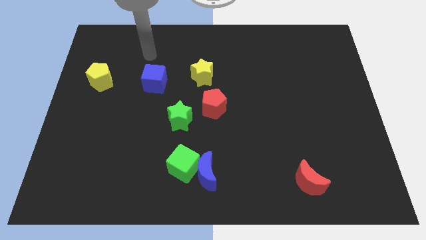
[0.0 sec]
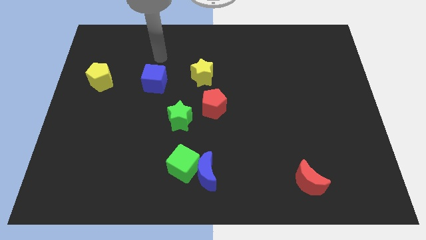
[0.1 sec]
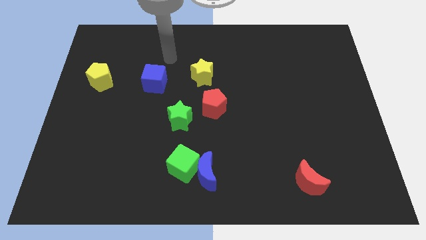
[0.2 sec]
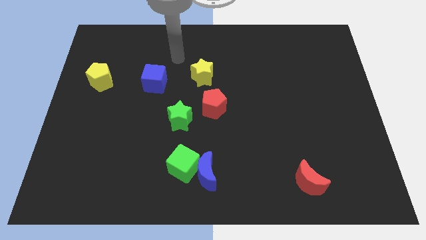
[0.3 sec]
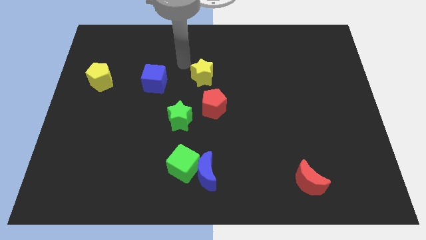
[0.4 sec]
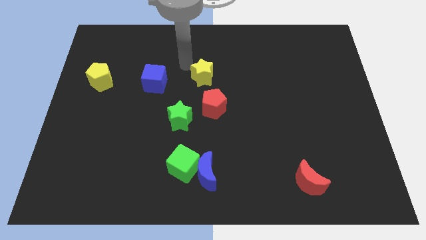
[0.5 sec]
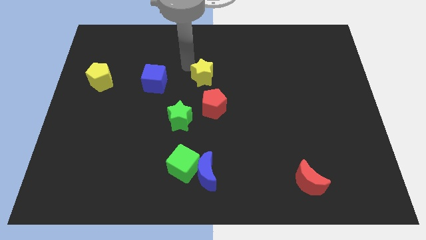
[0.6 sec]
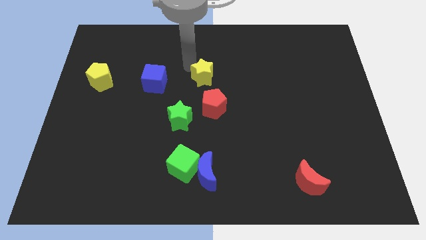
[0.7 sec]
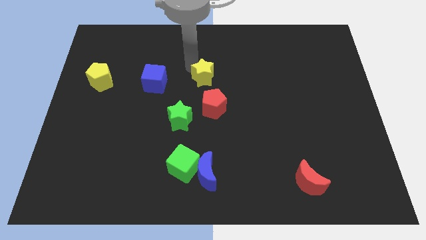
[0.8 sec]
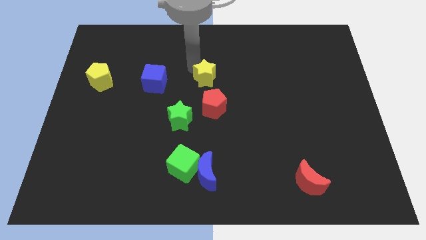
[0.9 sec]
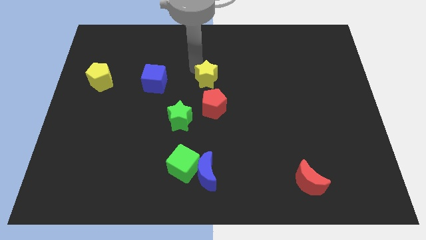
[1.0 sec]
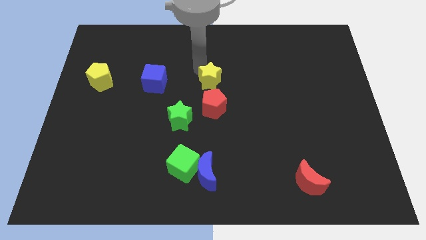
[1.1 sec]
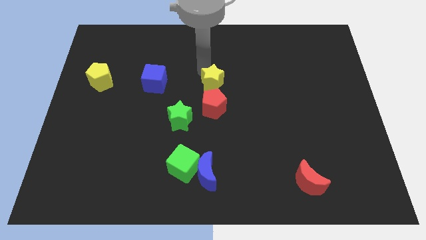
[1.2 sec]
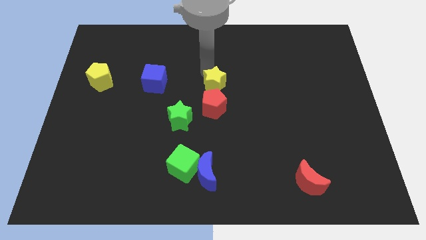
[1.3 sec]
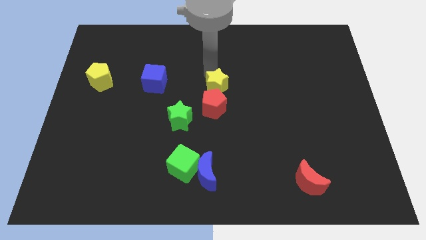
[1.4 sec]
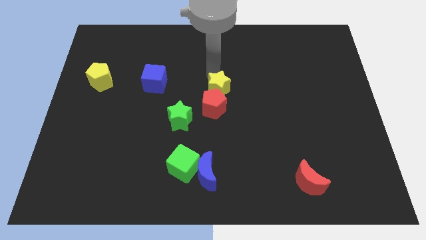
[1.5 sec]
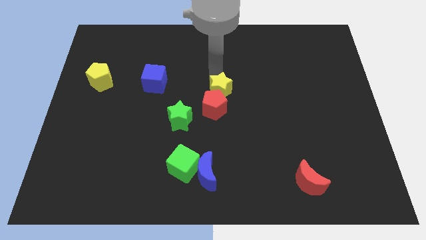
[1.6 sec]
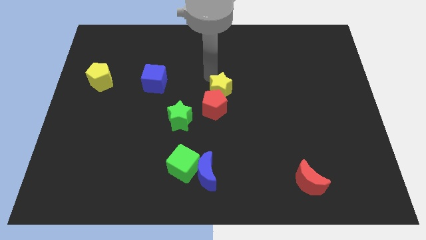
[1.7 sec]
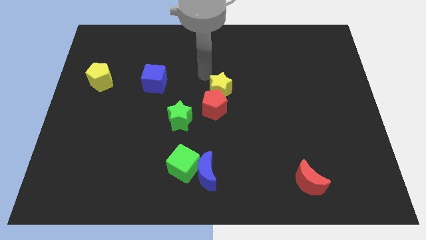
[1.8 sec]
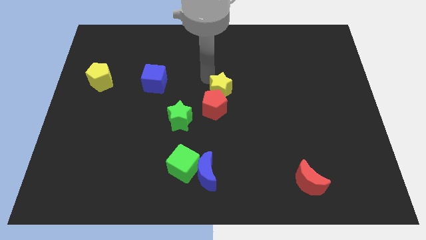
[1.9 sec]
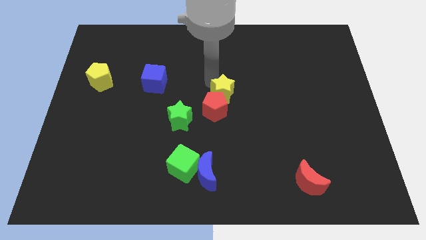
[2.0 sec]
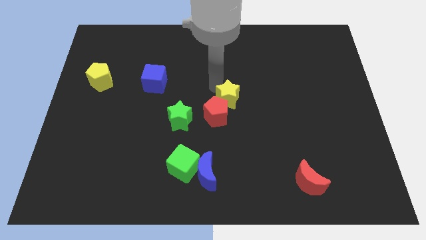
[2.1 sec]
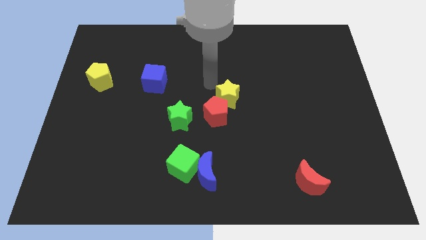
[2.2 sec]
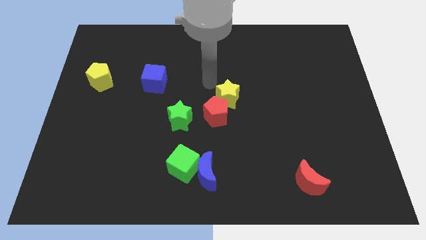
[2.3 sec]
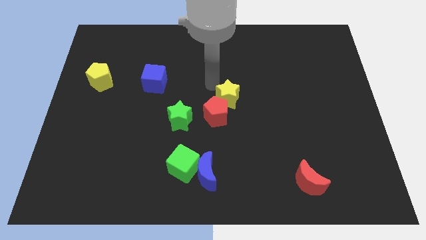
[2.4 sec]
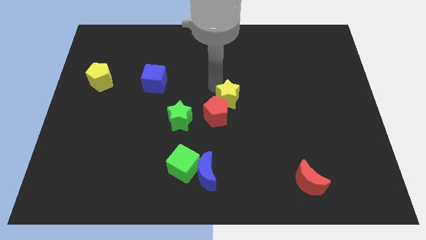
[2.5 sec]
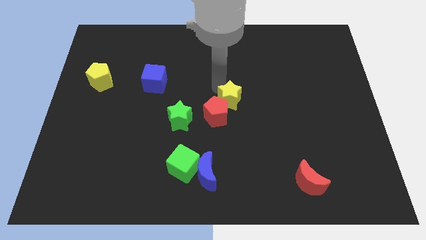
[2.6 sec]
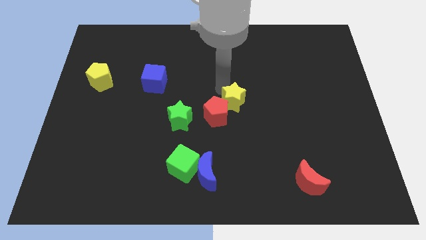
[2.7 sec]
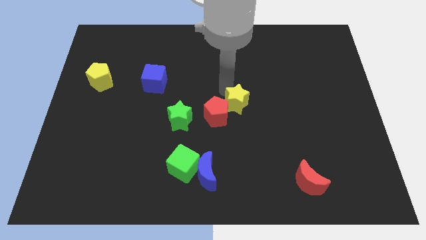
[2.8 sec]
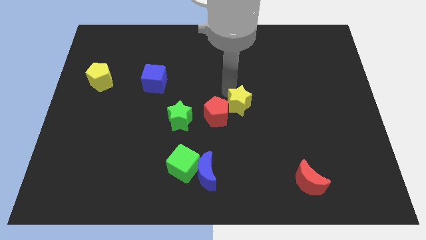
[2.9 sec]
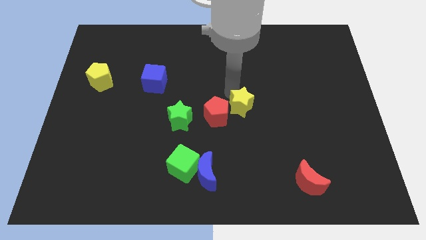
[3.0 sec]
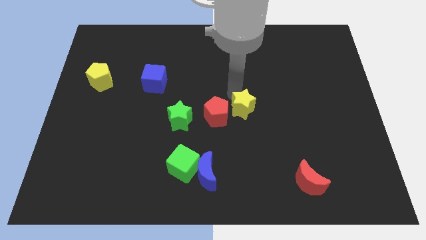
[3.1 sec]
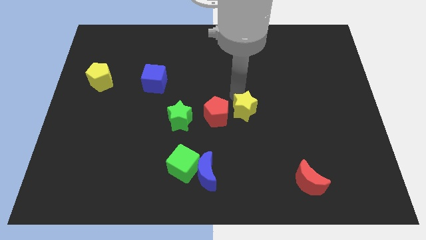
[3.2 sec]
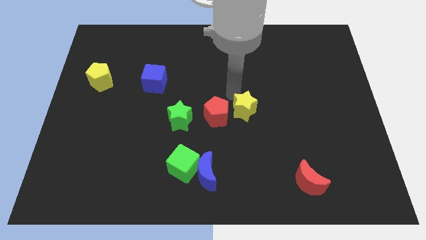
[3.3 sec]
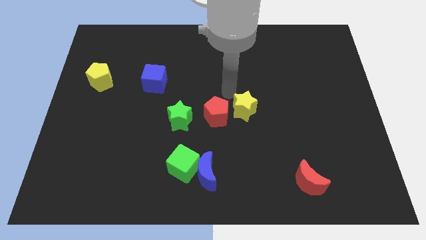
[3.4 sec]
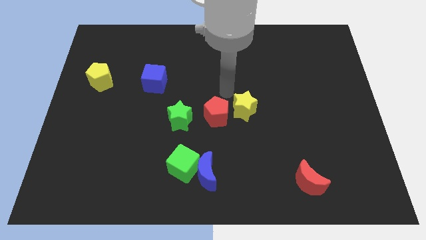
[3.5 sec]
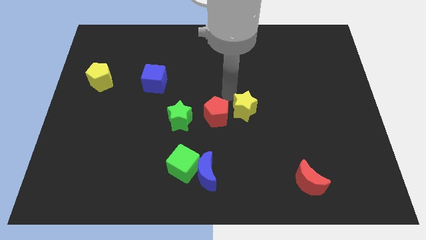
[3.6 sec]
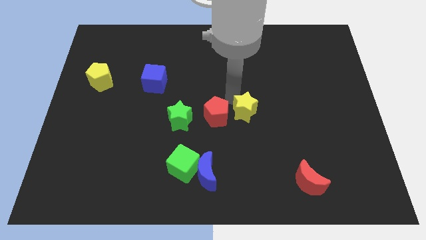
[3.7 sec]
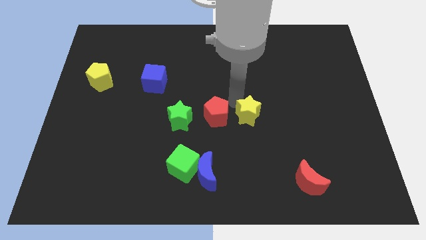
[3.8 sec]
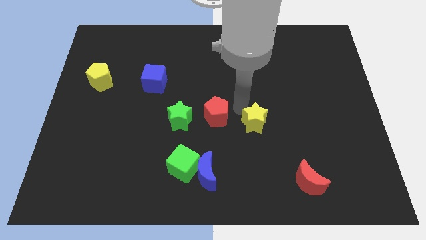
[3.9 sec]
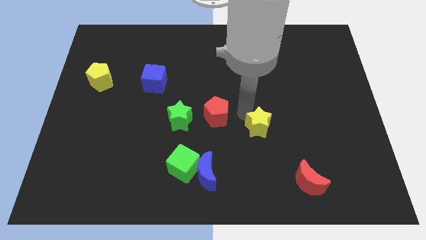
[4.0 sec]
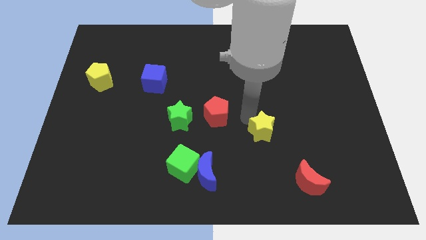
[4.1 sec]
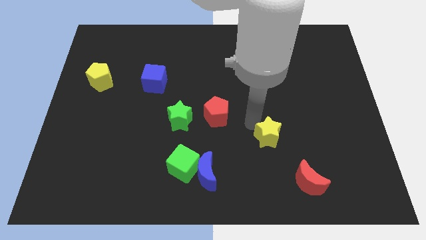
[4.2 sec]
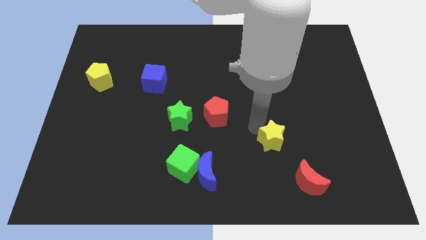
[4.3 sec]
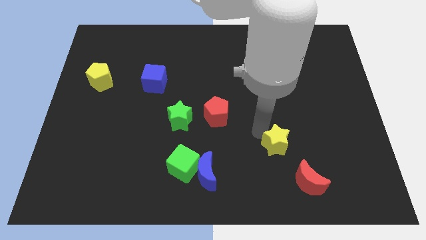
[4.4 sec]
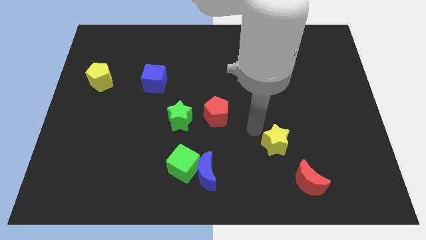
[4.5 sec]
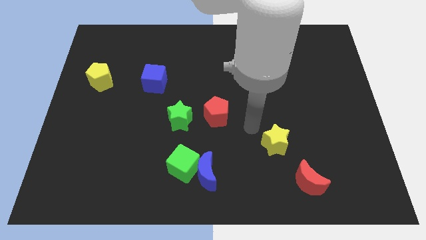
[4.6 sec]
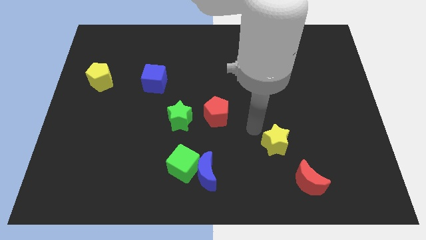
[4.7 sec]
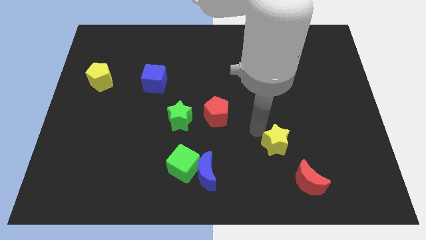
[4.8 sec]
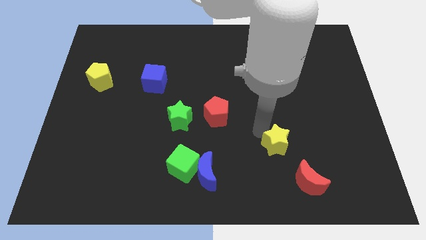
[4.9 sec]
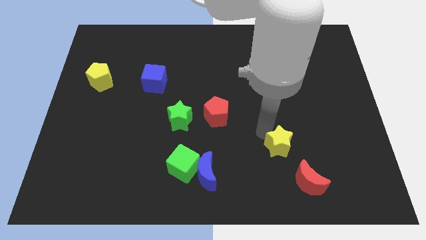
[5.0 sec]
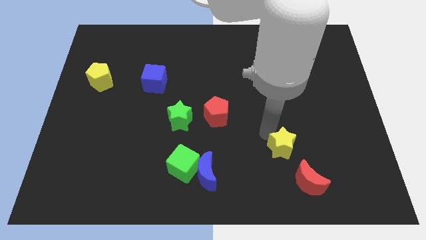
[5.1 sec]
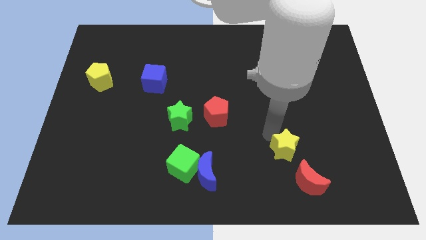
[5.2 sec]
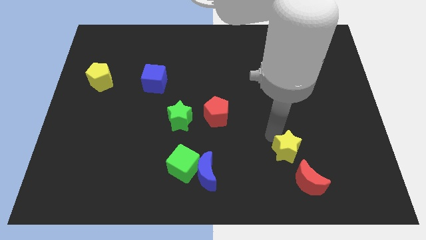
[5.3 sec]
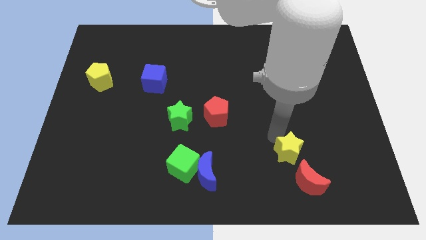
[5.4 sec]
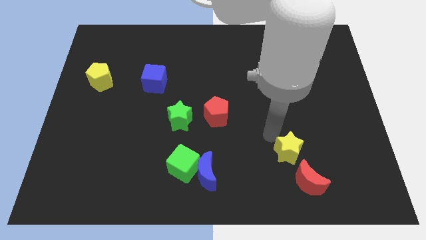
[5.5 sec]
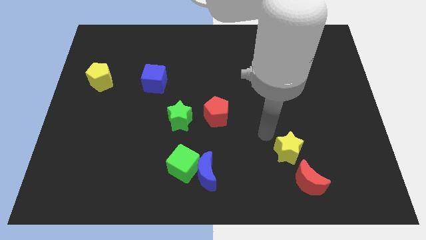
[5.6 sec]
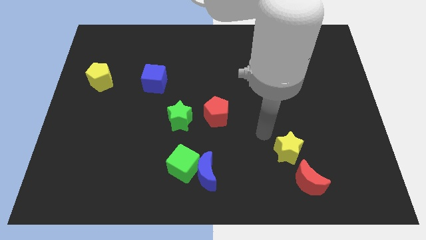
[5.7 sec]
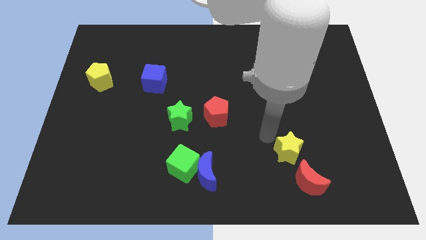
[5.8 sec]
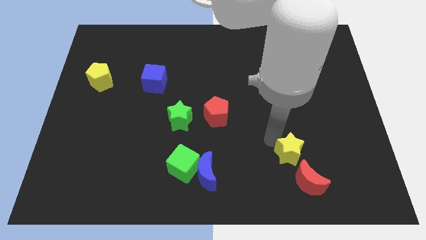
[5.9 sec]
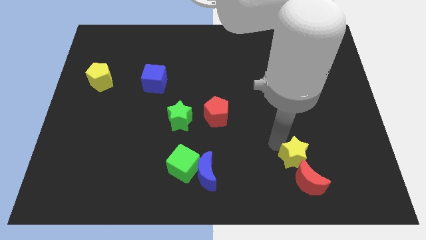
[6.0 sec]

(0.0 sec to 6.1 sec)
push the yellow star next to the red moon
